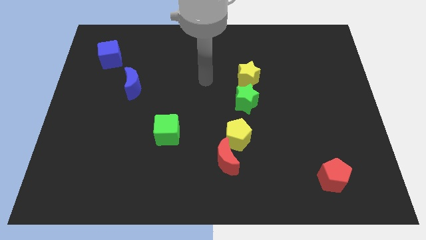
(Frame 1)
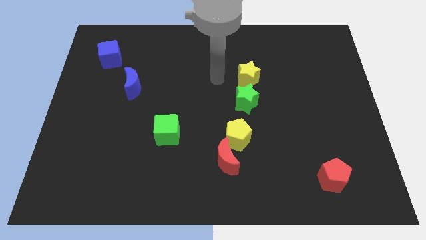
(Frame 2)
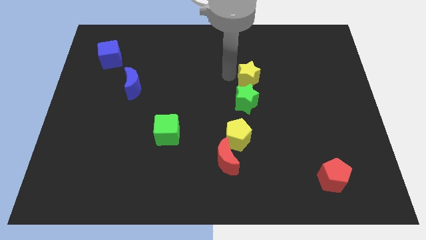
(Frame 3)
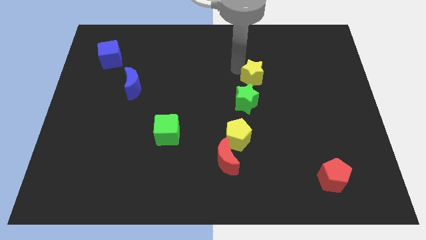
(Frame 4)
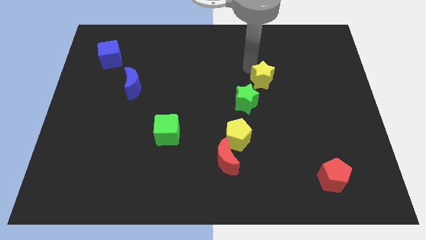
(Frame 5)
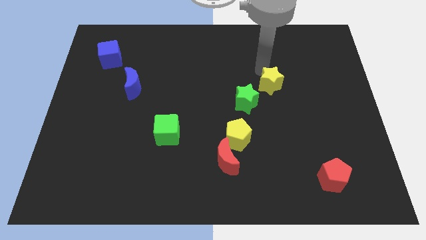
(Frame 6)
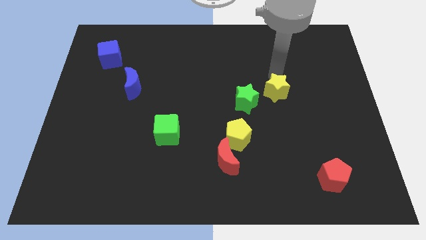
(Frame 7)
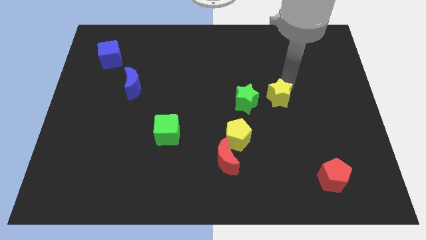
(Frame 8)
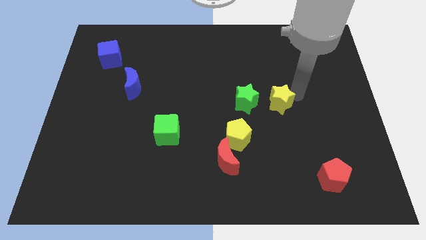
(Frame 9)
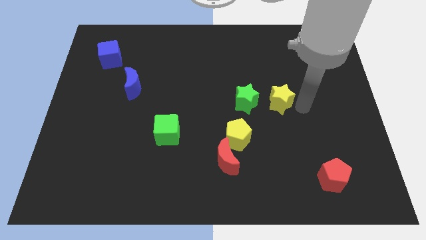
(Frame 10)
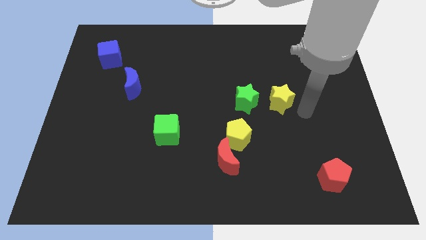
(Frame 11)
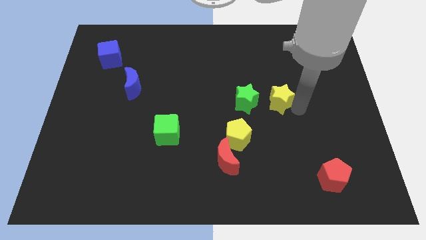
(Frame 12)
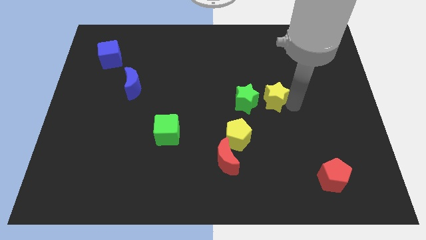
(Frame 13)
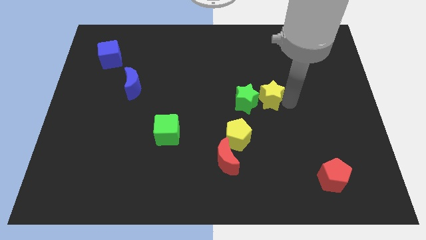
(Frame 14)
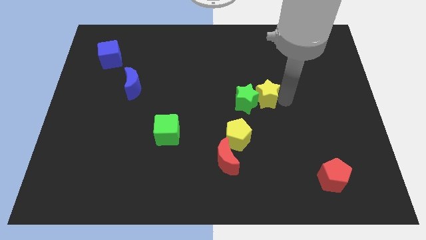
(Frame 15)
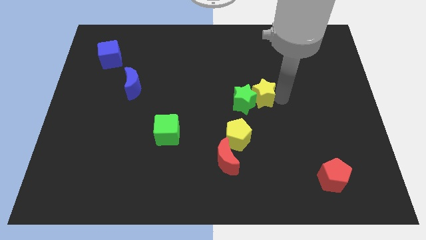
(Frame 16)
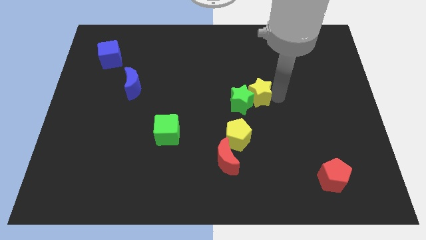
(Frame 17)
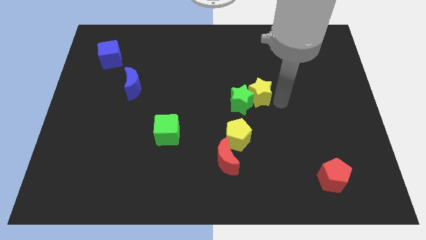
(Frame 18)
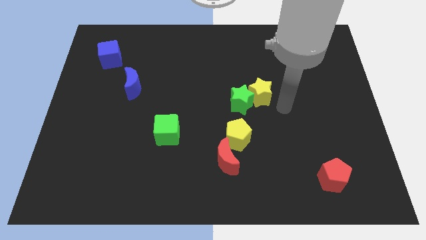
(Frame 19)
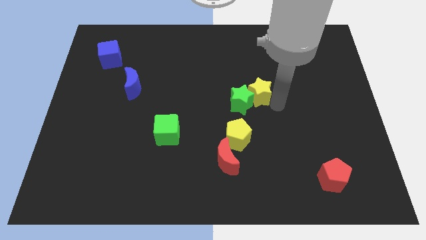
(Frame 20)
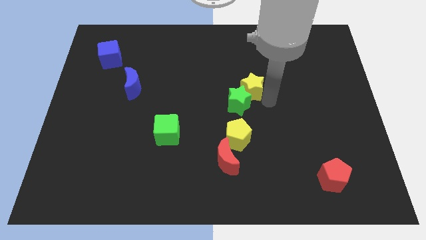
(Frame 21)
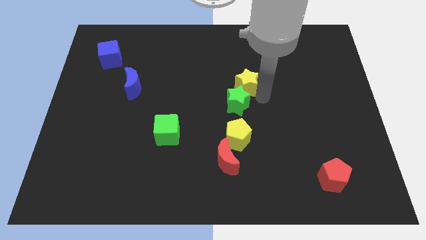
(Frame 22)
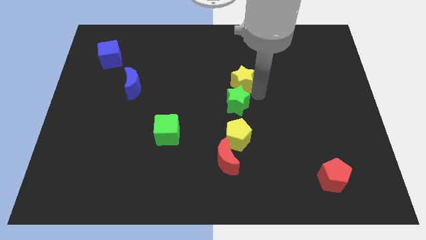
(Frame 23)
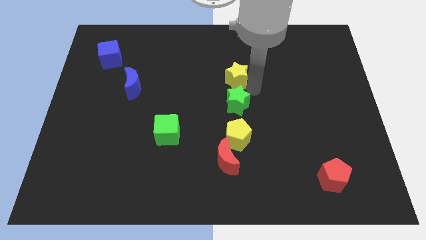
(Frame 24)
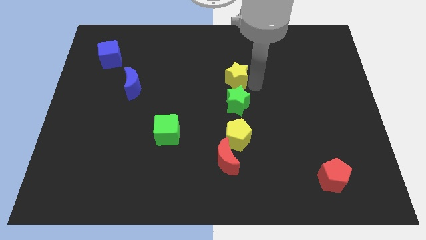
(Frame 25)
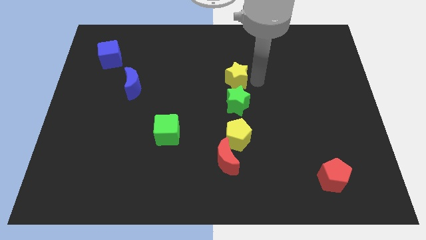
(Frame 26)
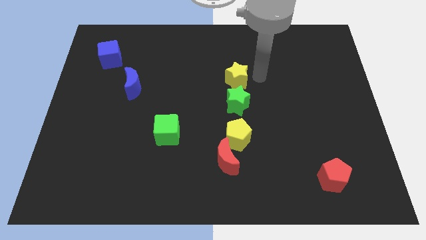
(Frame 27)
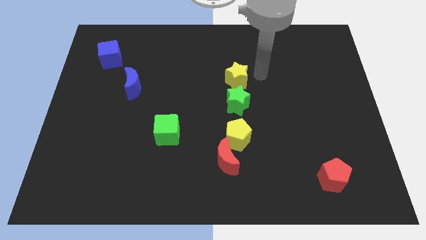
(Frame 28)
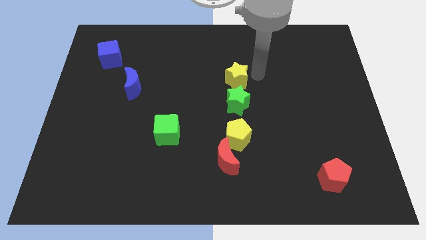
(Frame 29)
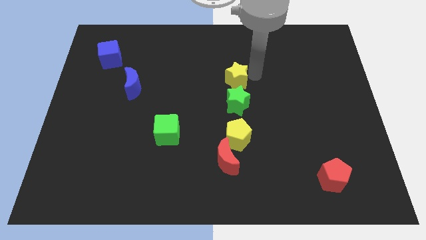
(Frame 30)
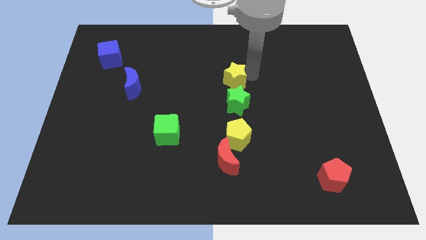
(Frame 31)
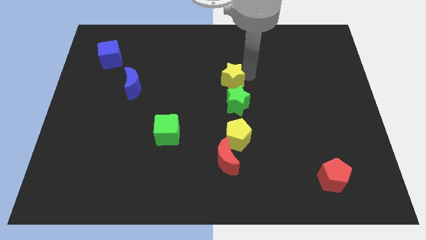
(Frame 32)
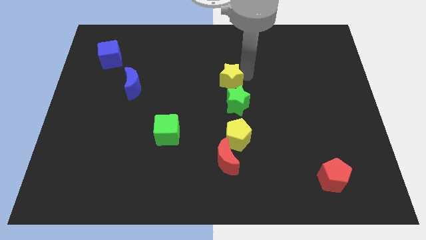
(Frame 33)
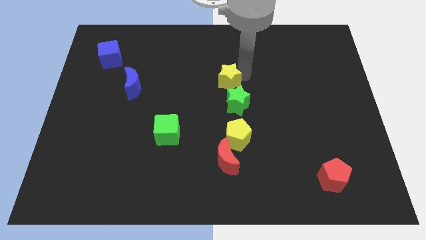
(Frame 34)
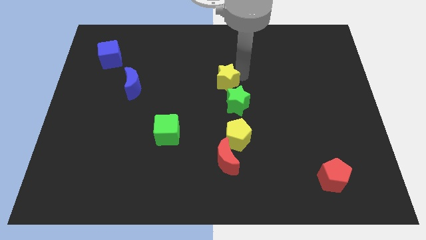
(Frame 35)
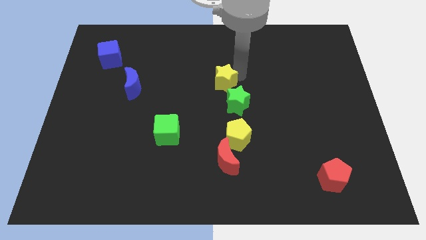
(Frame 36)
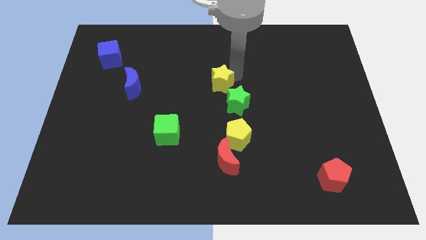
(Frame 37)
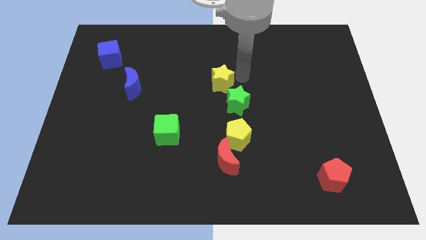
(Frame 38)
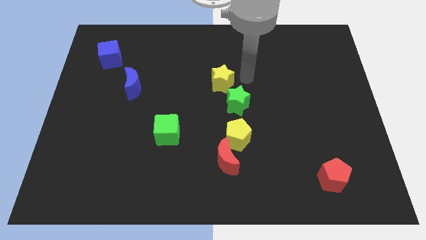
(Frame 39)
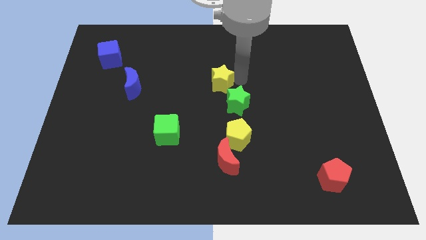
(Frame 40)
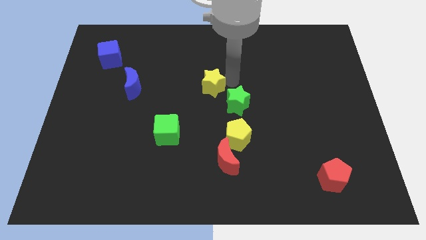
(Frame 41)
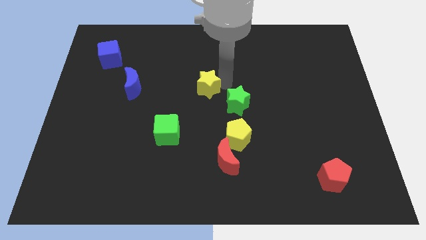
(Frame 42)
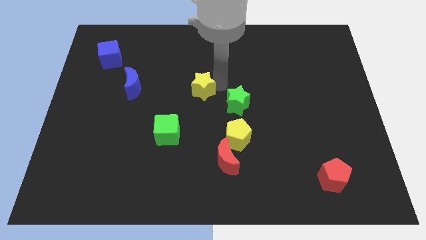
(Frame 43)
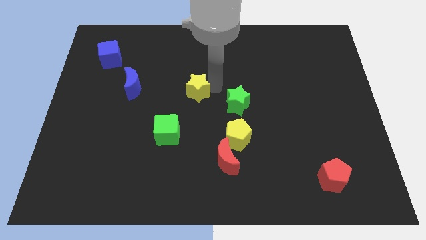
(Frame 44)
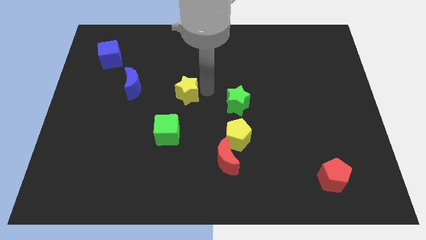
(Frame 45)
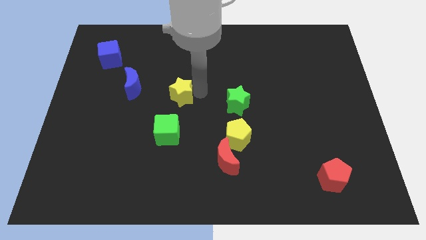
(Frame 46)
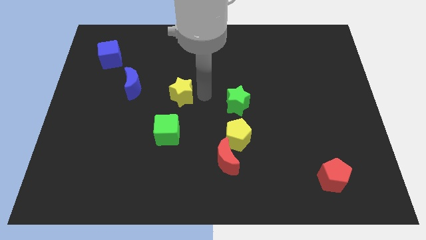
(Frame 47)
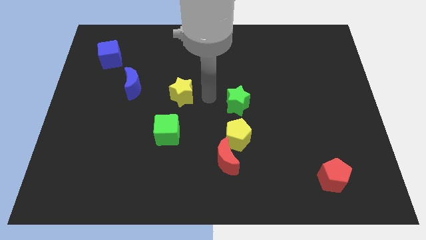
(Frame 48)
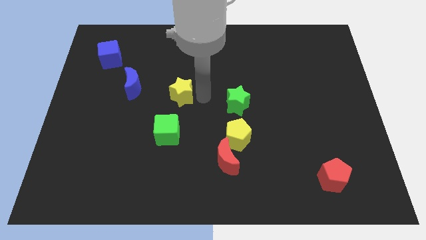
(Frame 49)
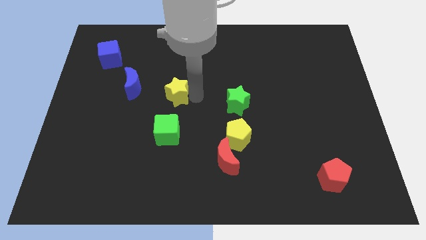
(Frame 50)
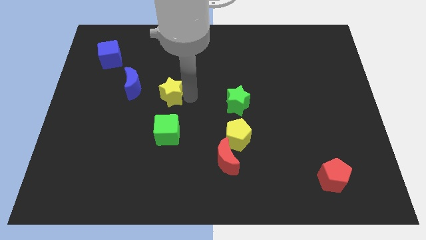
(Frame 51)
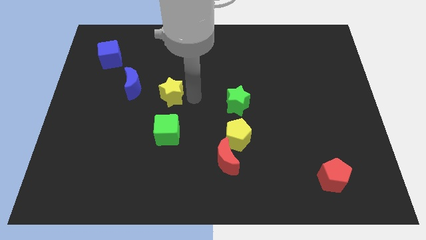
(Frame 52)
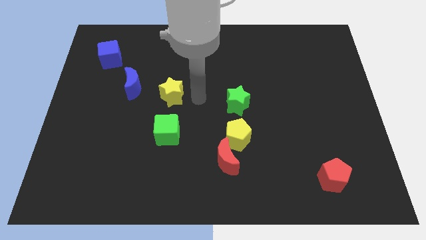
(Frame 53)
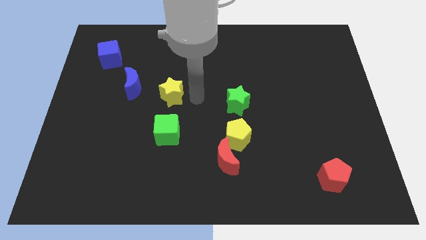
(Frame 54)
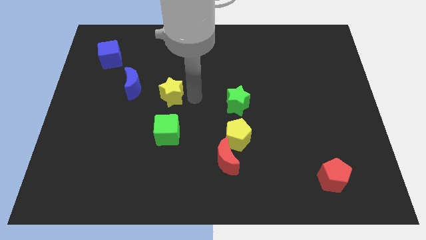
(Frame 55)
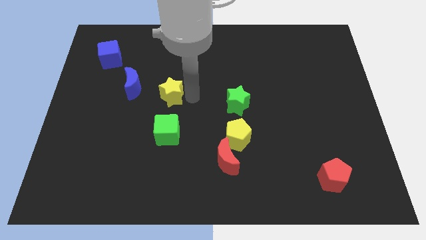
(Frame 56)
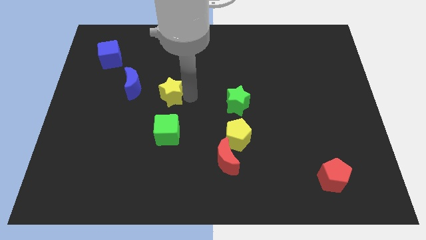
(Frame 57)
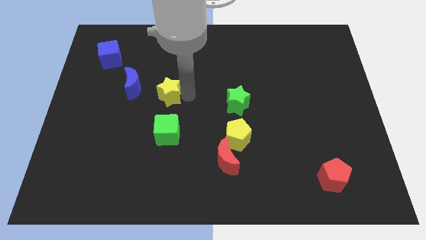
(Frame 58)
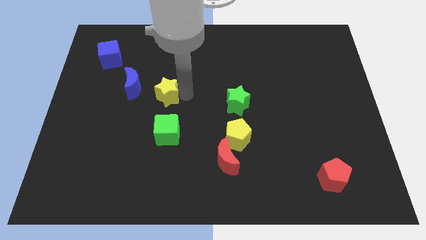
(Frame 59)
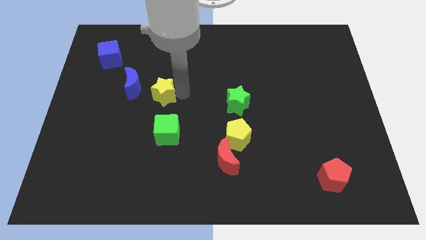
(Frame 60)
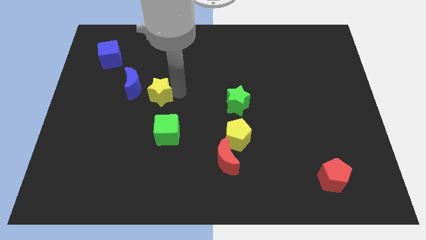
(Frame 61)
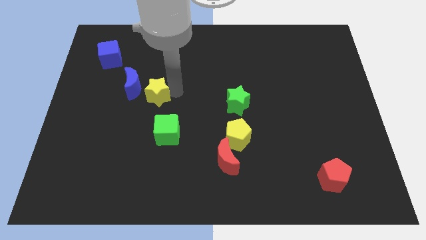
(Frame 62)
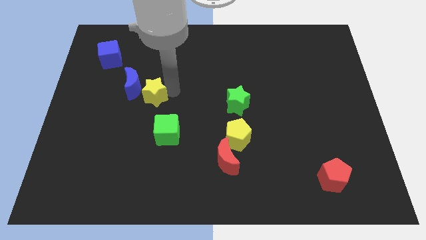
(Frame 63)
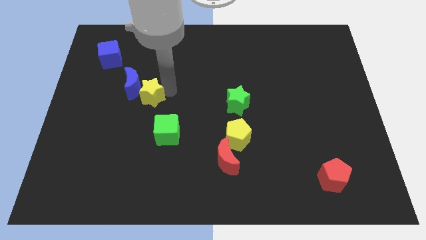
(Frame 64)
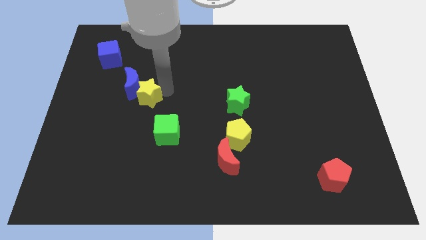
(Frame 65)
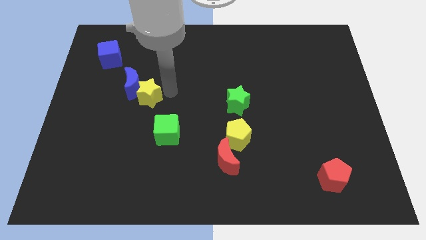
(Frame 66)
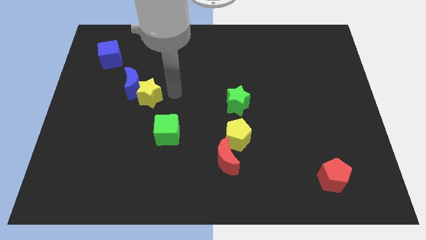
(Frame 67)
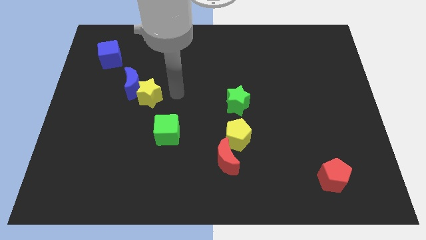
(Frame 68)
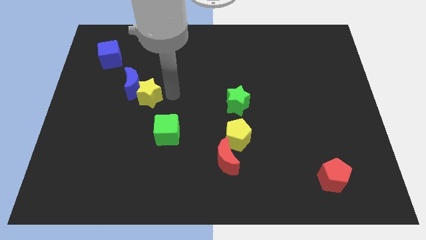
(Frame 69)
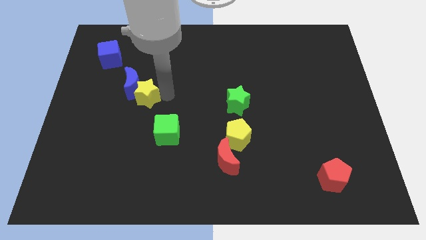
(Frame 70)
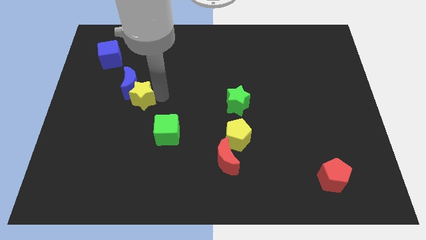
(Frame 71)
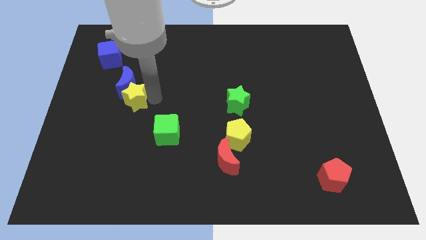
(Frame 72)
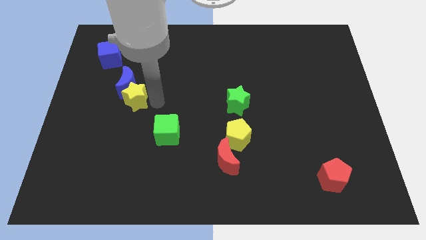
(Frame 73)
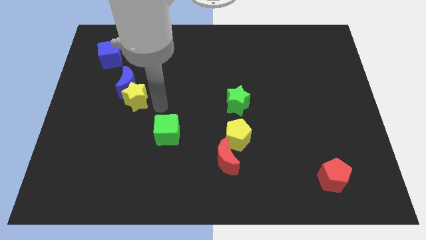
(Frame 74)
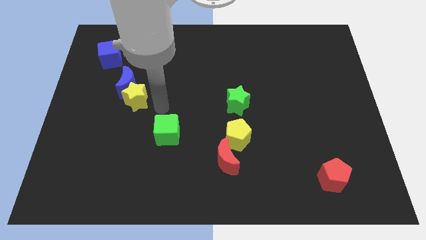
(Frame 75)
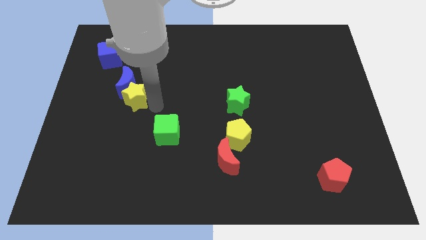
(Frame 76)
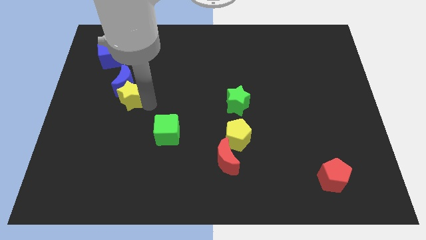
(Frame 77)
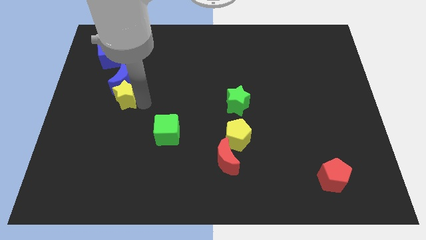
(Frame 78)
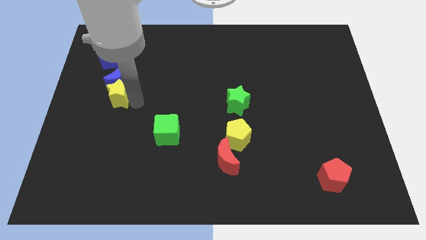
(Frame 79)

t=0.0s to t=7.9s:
move the yellow star to the bottom side of the blue cube
